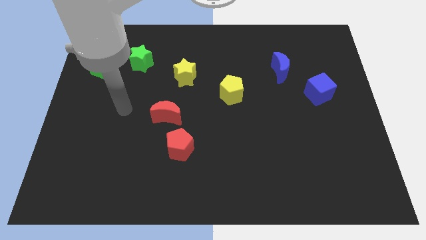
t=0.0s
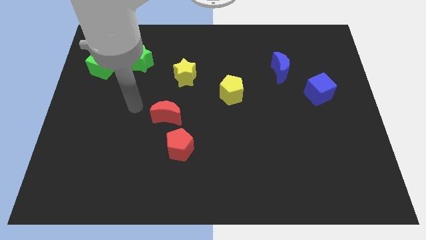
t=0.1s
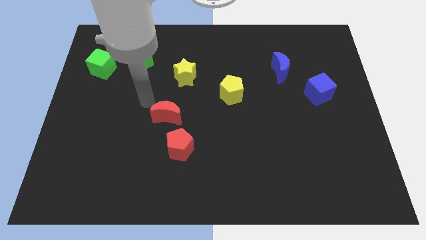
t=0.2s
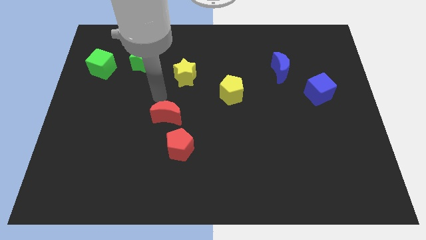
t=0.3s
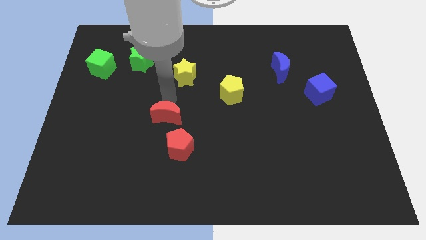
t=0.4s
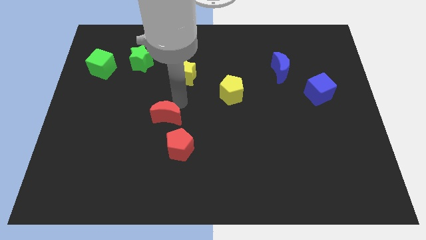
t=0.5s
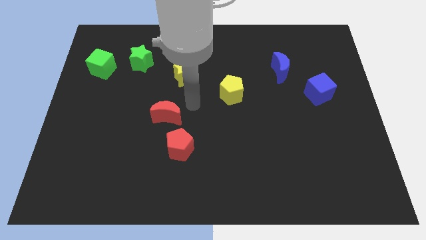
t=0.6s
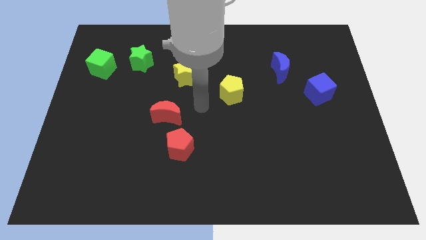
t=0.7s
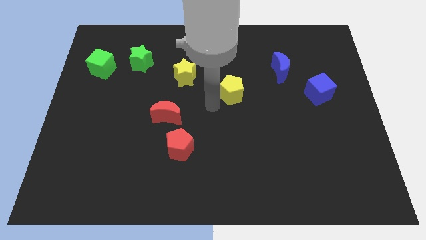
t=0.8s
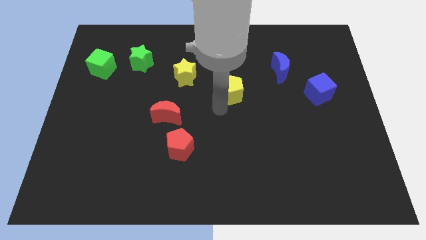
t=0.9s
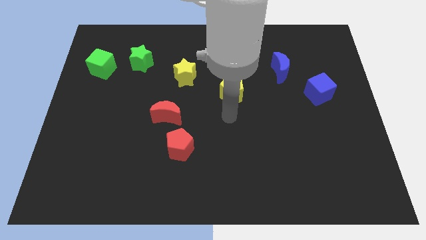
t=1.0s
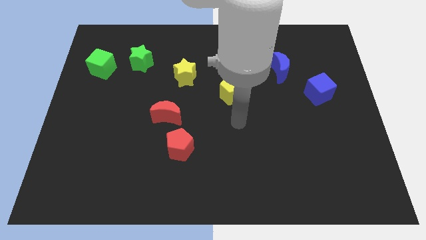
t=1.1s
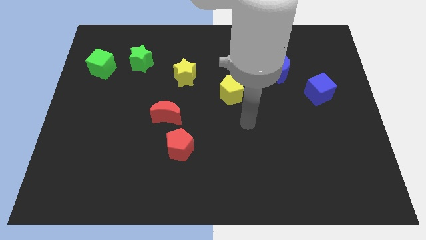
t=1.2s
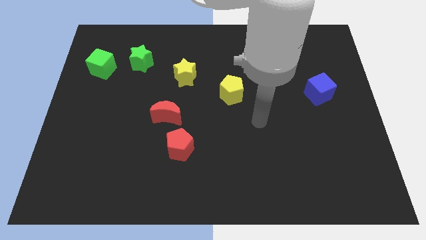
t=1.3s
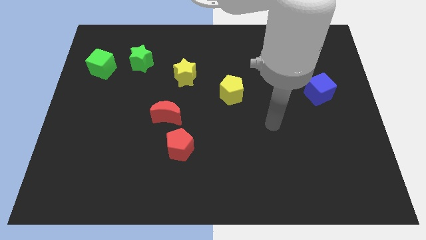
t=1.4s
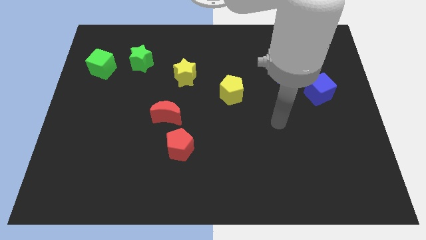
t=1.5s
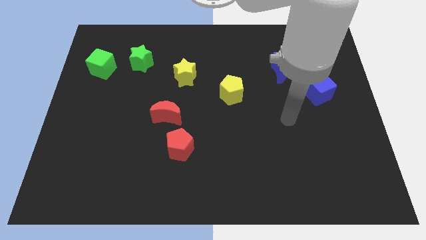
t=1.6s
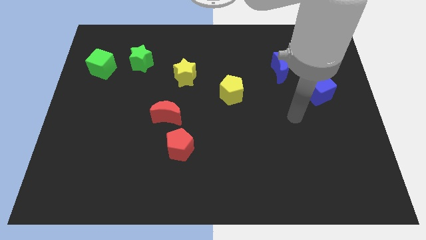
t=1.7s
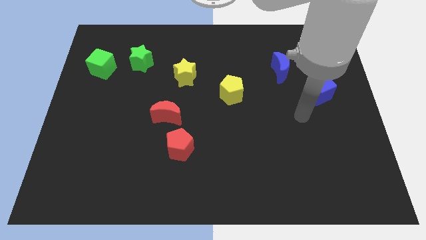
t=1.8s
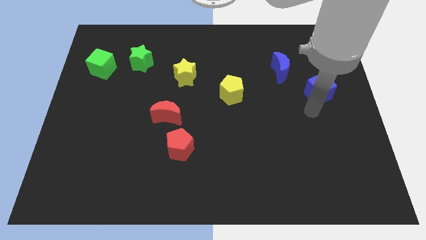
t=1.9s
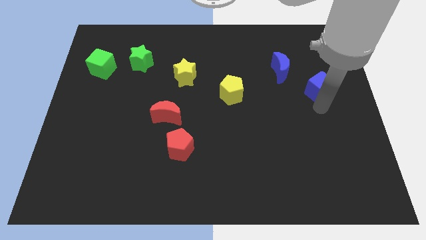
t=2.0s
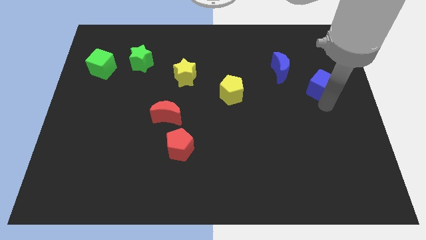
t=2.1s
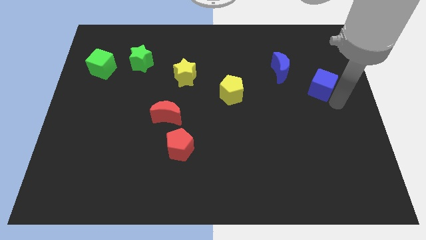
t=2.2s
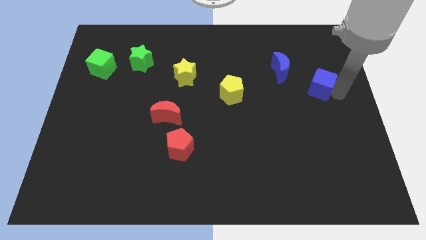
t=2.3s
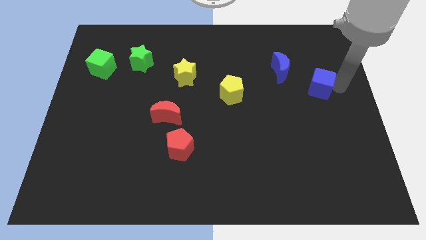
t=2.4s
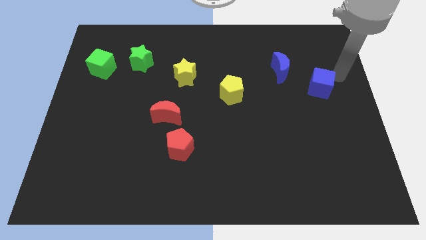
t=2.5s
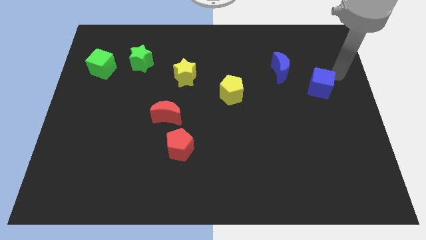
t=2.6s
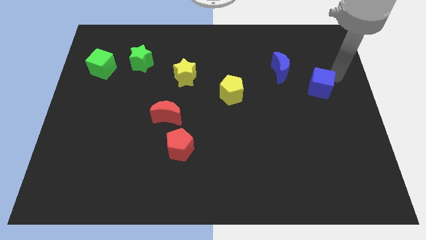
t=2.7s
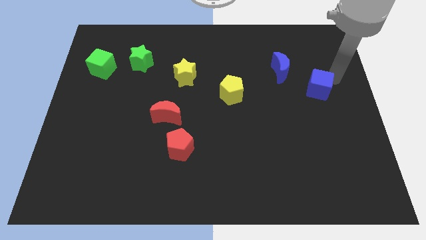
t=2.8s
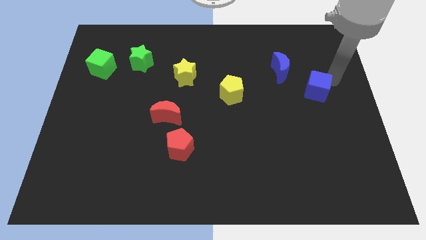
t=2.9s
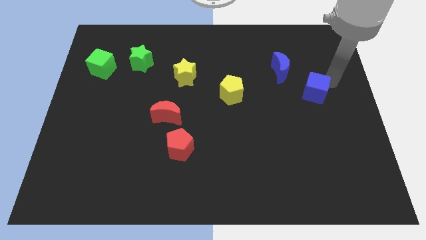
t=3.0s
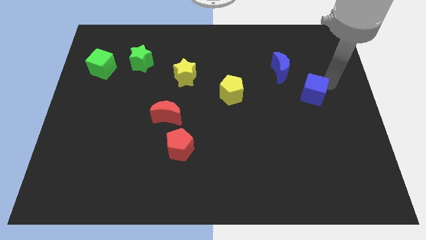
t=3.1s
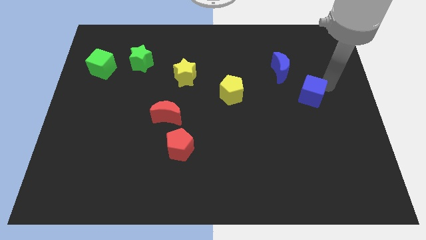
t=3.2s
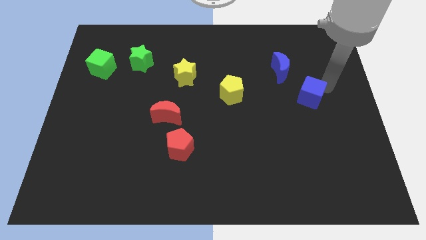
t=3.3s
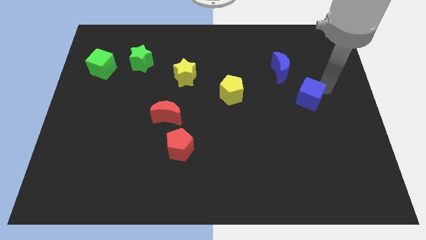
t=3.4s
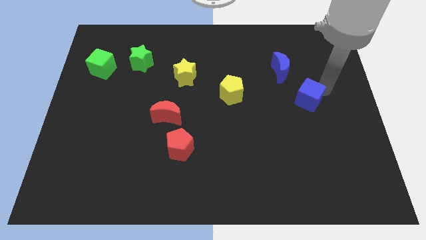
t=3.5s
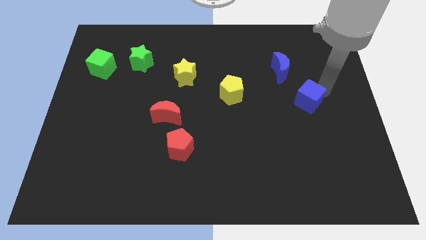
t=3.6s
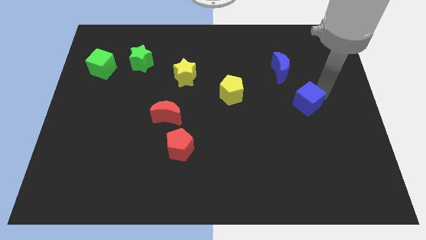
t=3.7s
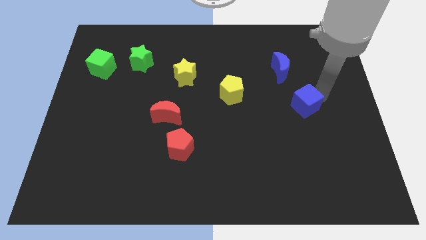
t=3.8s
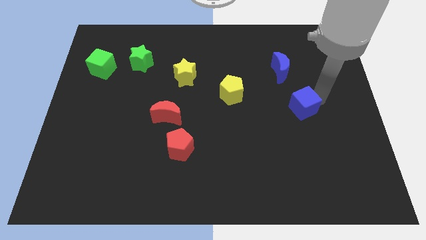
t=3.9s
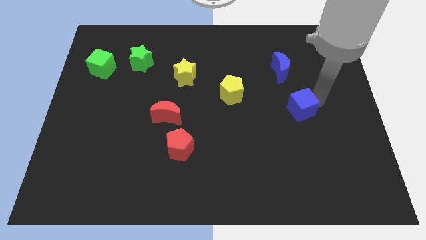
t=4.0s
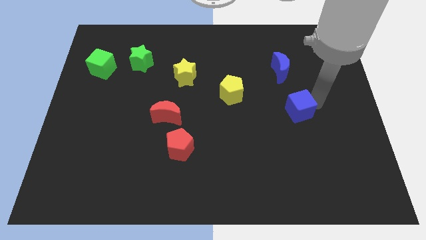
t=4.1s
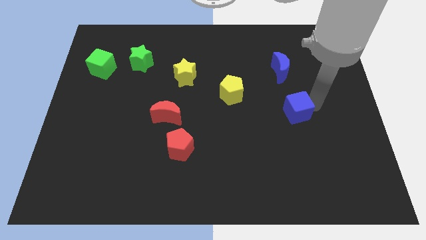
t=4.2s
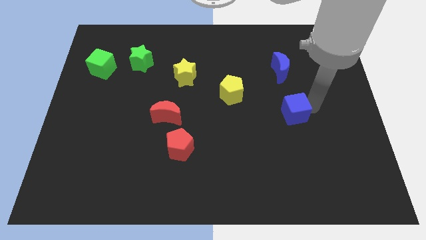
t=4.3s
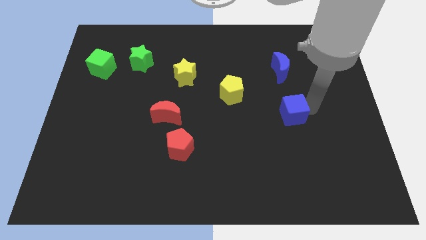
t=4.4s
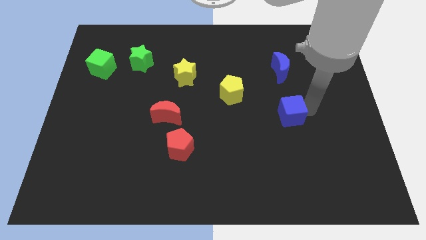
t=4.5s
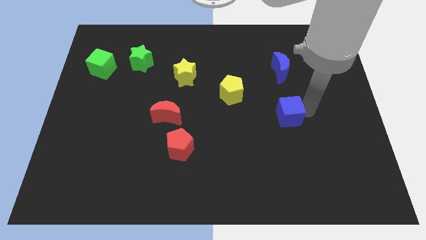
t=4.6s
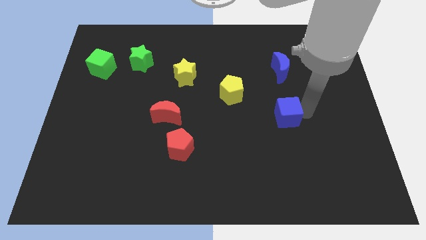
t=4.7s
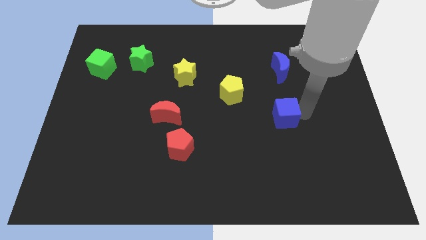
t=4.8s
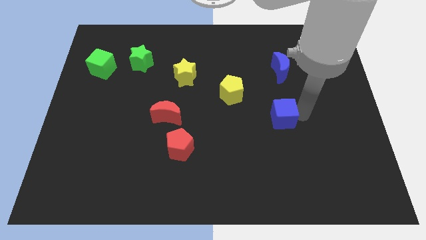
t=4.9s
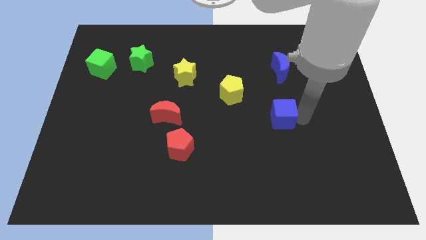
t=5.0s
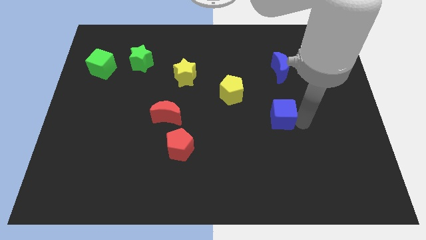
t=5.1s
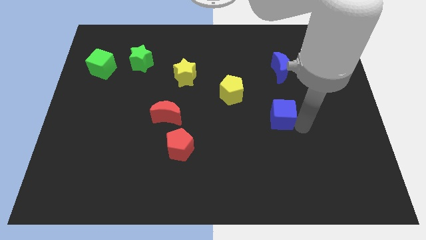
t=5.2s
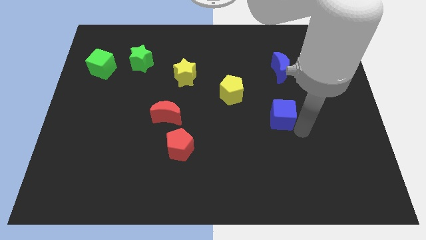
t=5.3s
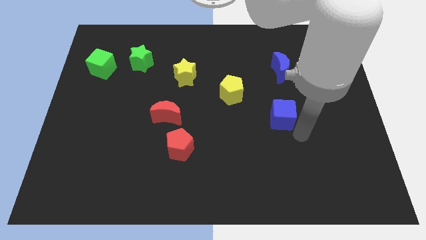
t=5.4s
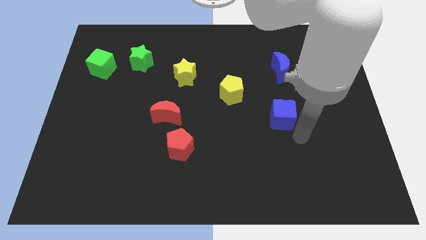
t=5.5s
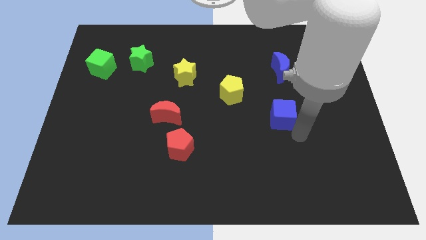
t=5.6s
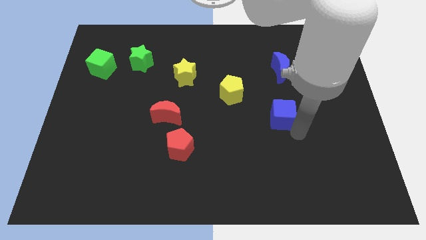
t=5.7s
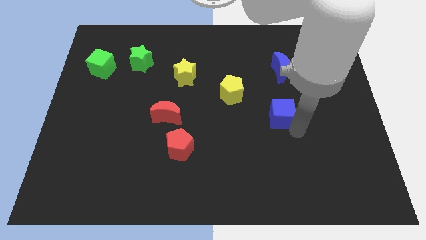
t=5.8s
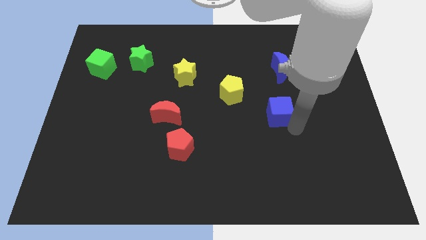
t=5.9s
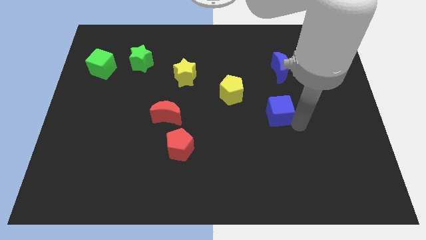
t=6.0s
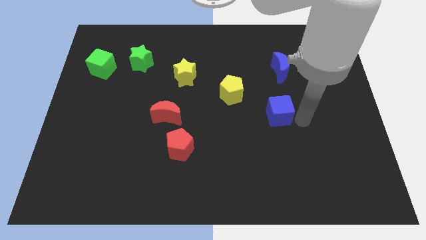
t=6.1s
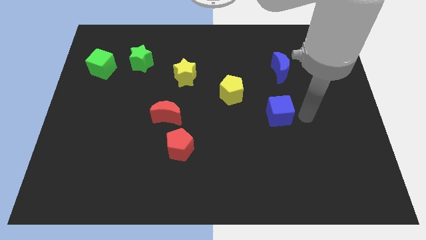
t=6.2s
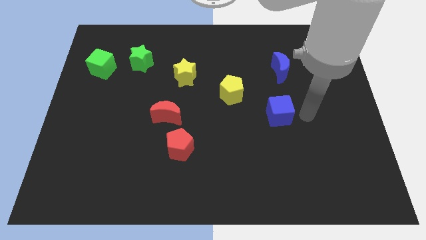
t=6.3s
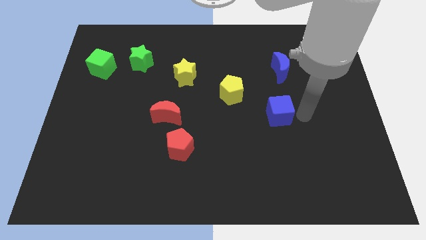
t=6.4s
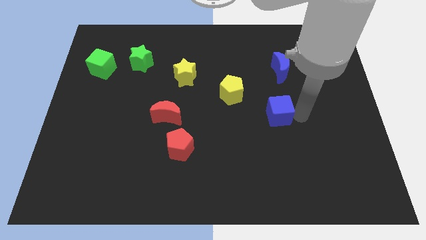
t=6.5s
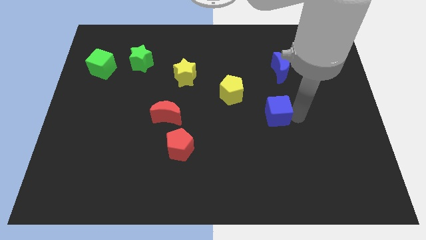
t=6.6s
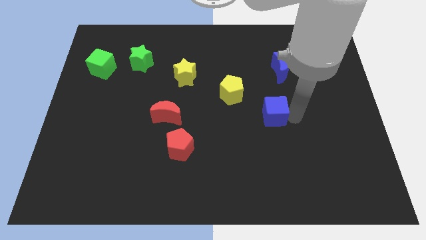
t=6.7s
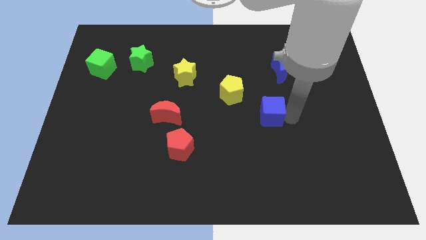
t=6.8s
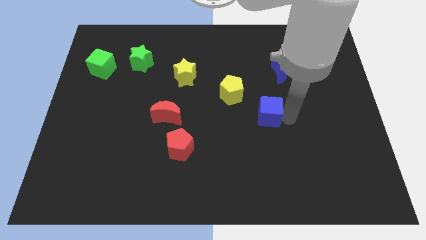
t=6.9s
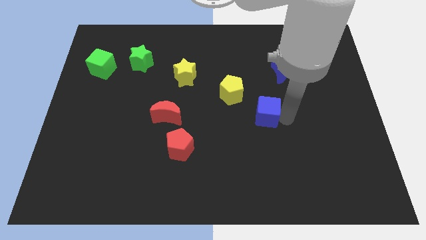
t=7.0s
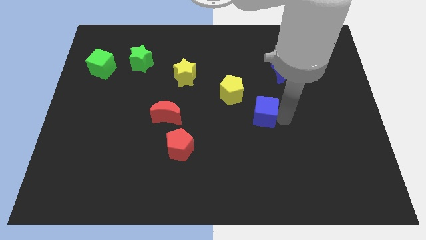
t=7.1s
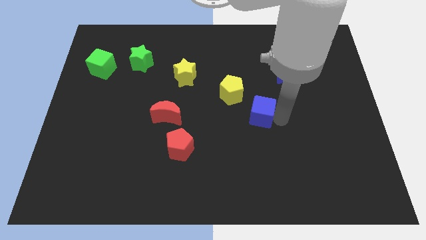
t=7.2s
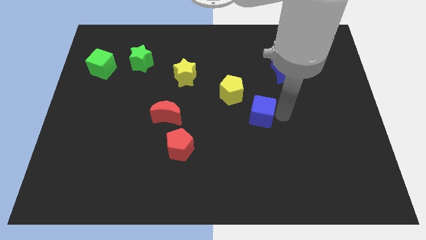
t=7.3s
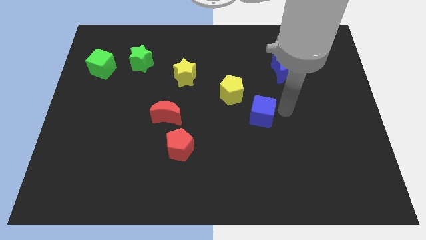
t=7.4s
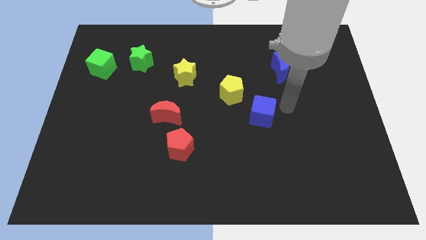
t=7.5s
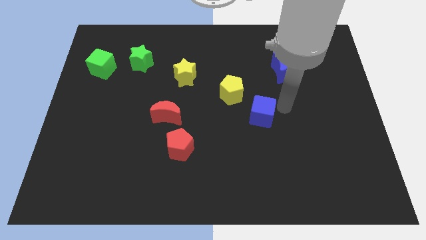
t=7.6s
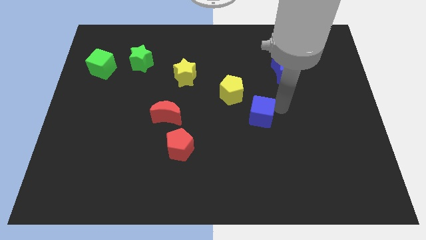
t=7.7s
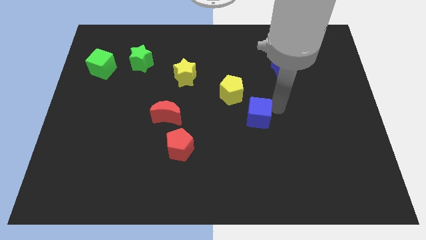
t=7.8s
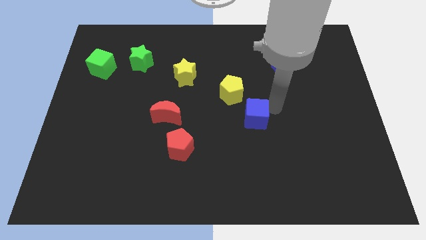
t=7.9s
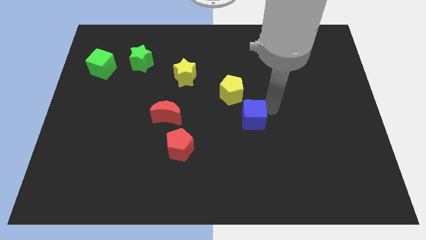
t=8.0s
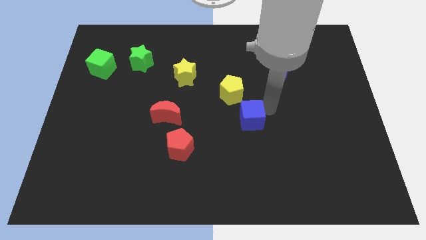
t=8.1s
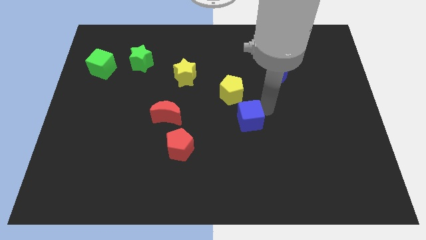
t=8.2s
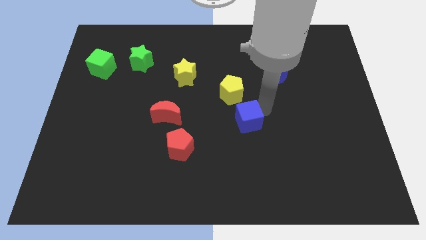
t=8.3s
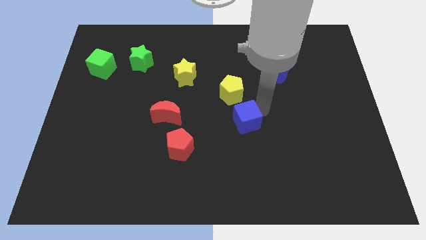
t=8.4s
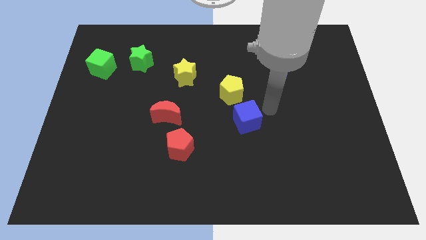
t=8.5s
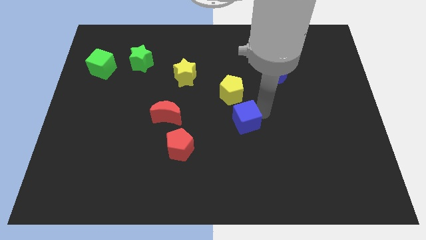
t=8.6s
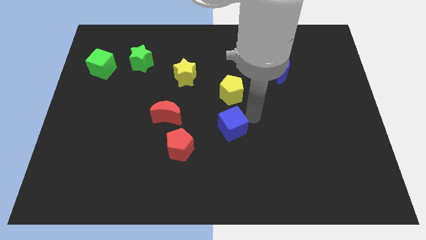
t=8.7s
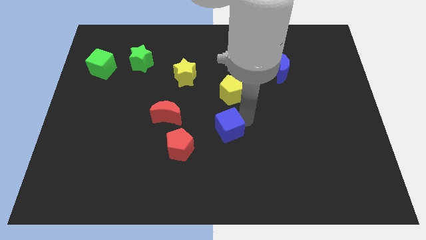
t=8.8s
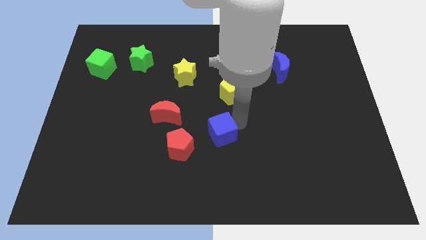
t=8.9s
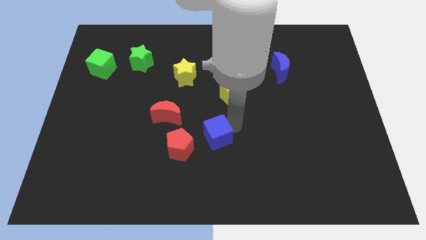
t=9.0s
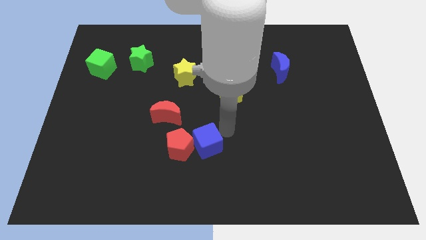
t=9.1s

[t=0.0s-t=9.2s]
put the blue cube next to the red pentagon
